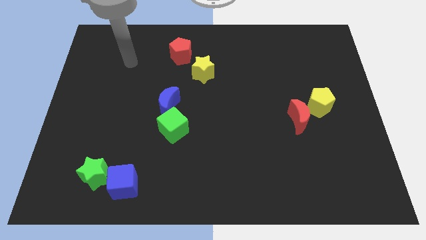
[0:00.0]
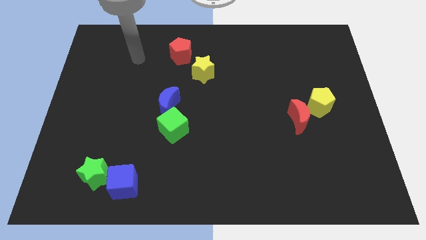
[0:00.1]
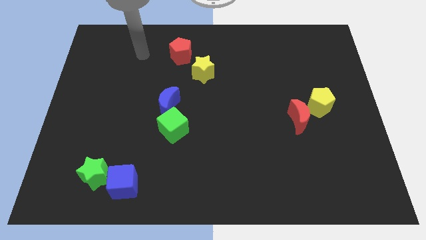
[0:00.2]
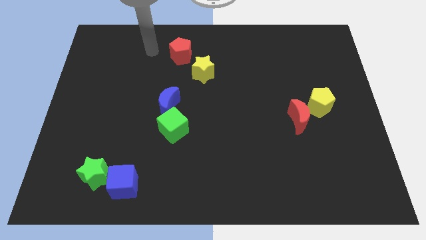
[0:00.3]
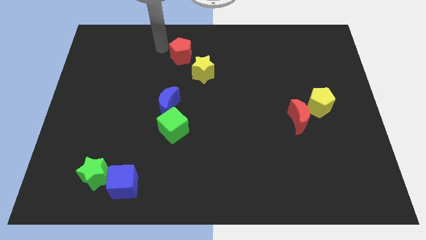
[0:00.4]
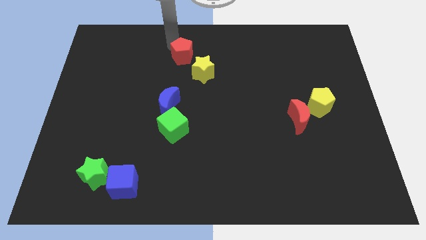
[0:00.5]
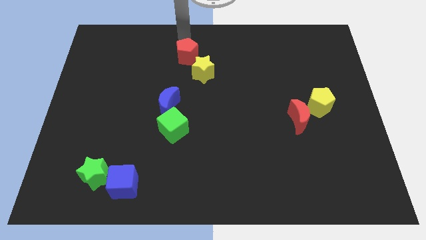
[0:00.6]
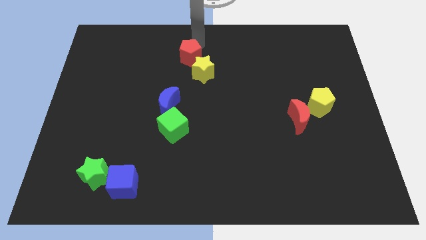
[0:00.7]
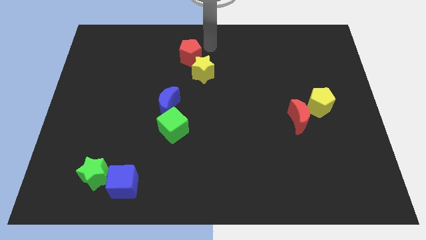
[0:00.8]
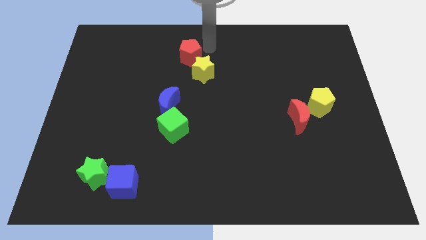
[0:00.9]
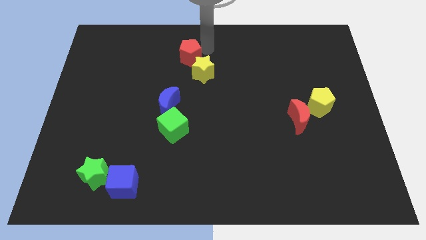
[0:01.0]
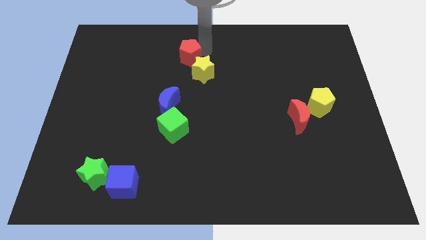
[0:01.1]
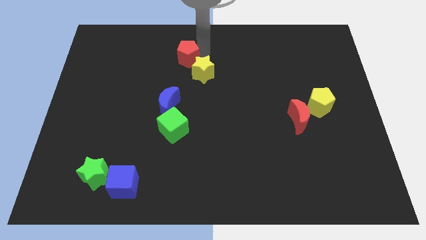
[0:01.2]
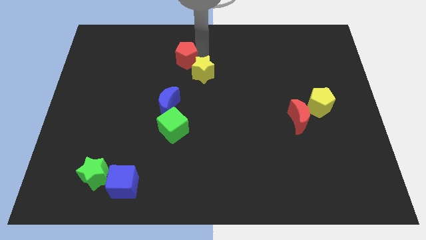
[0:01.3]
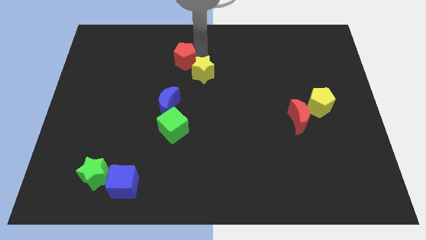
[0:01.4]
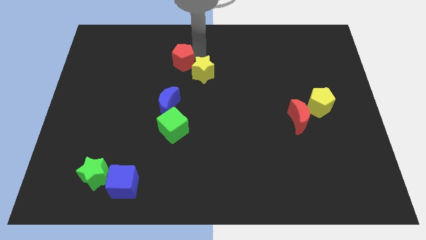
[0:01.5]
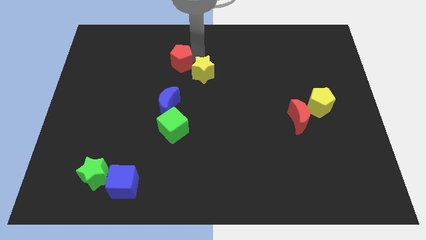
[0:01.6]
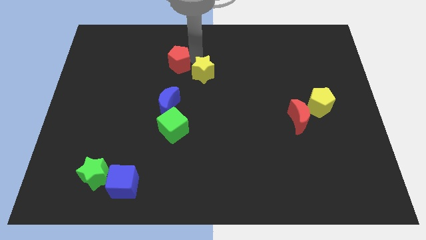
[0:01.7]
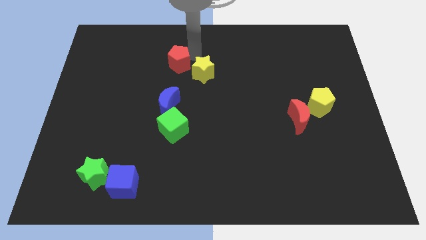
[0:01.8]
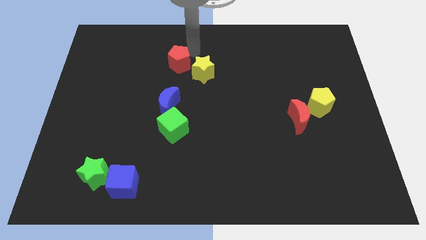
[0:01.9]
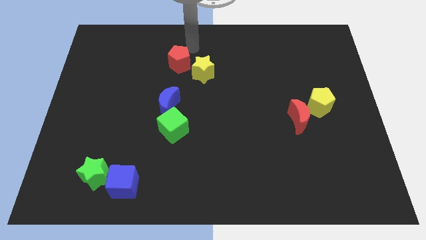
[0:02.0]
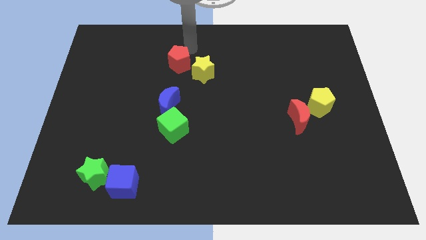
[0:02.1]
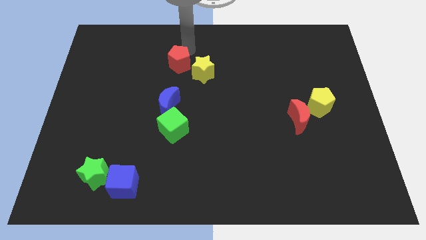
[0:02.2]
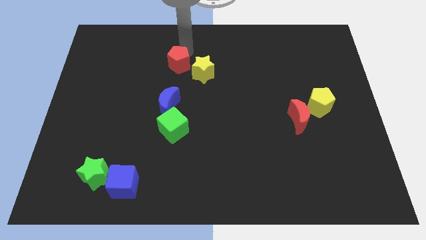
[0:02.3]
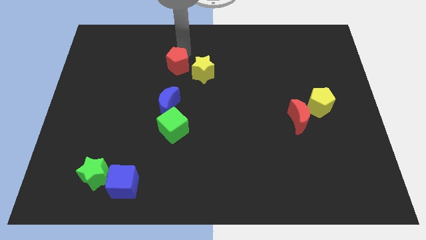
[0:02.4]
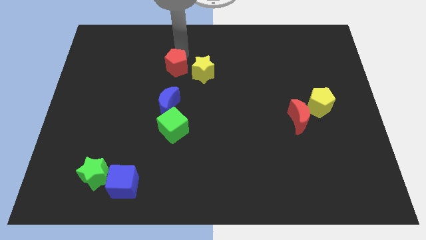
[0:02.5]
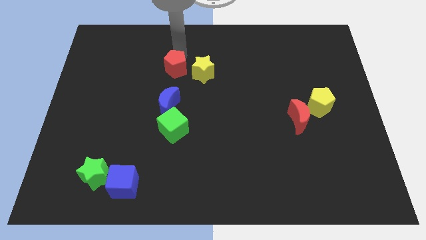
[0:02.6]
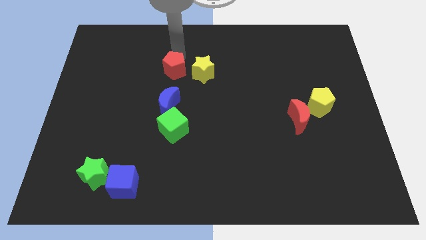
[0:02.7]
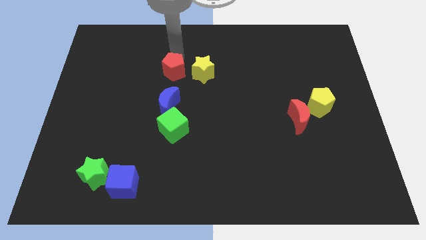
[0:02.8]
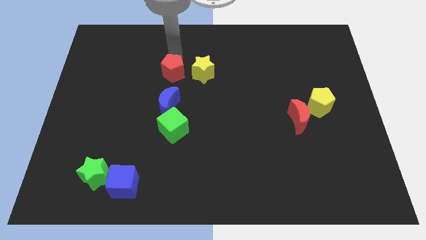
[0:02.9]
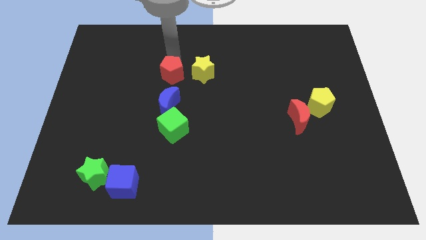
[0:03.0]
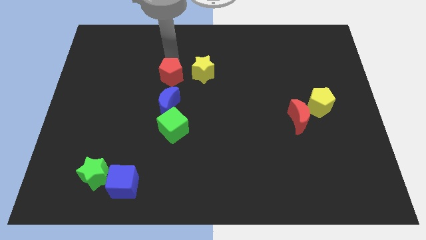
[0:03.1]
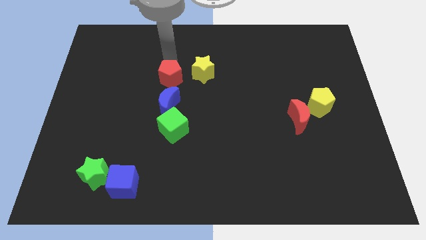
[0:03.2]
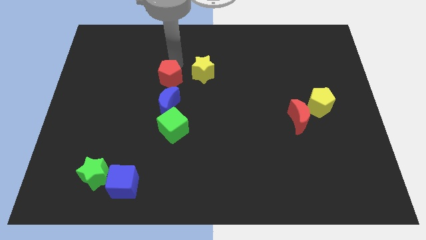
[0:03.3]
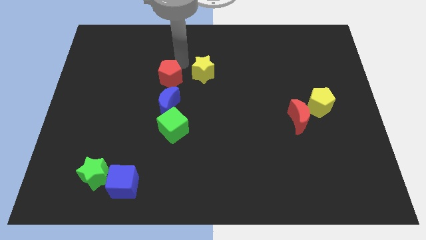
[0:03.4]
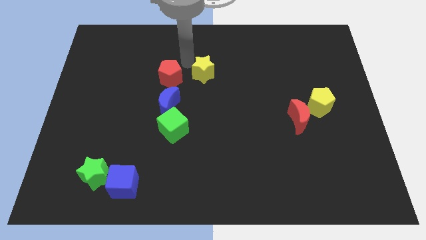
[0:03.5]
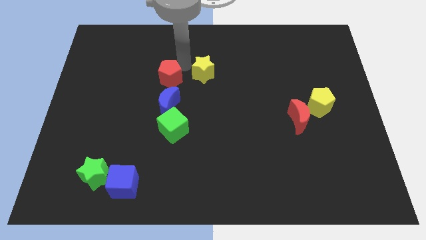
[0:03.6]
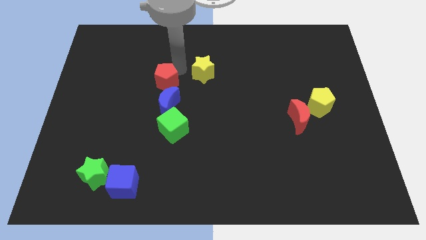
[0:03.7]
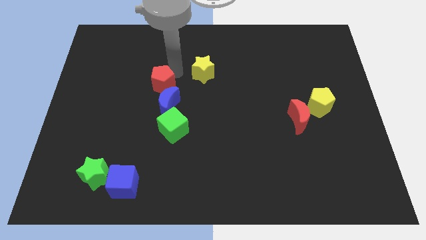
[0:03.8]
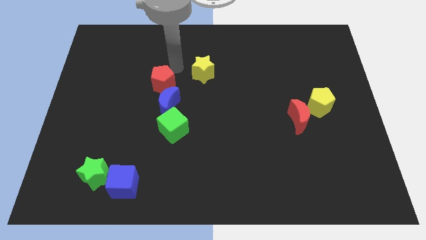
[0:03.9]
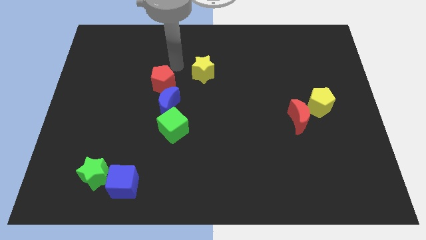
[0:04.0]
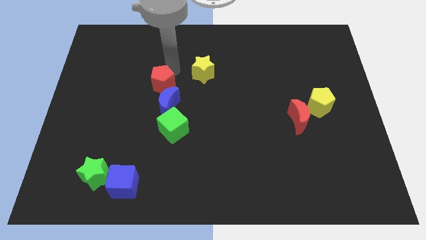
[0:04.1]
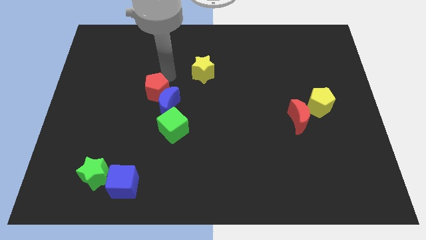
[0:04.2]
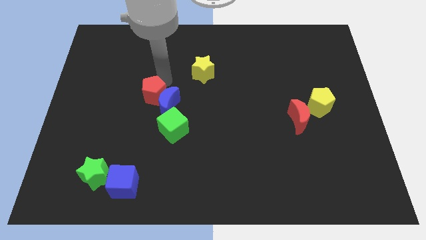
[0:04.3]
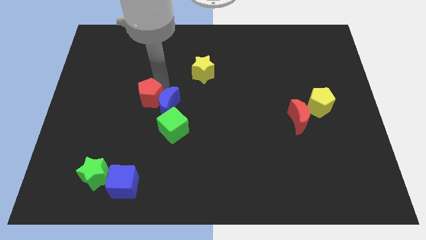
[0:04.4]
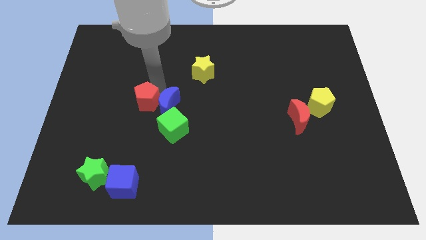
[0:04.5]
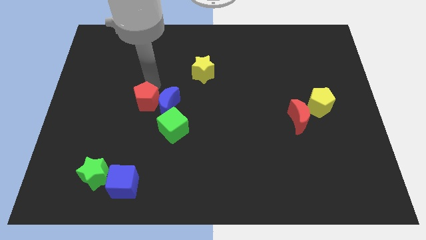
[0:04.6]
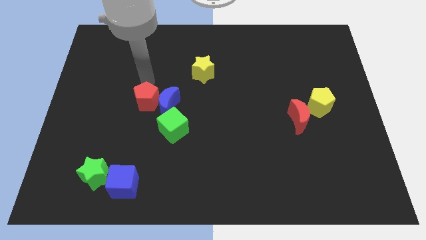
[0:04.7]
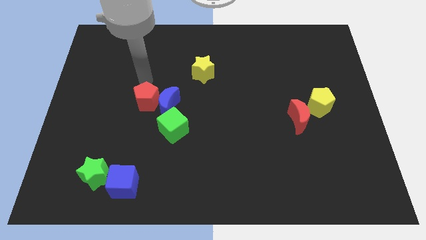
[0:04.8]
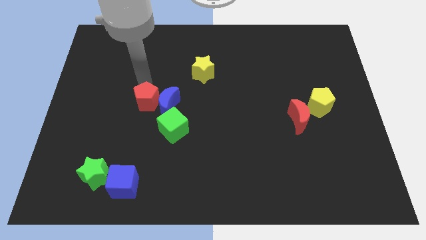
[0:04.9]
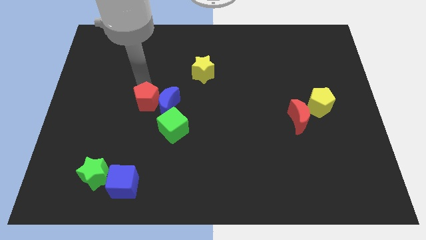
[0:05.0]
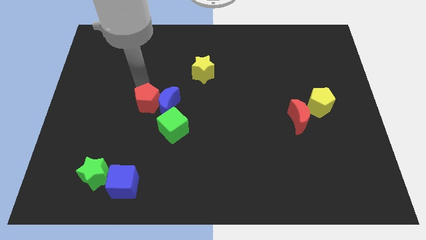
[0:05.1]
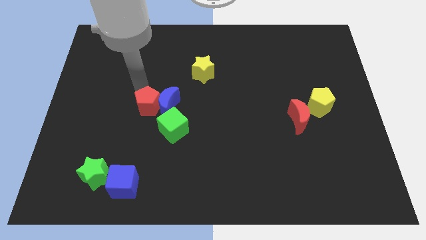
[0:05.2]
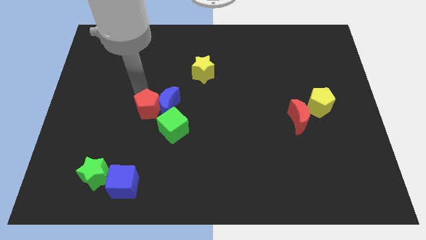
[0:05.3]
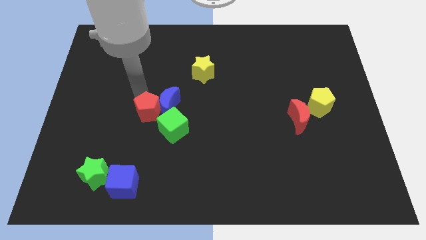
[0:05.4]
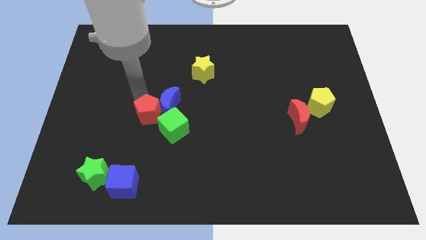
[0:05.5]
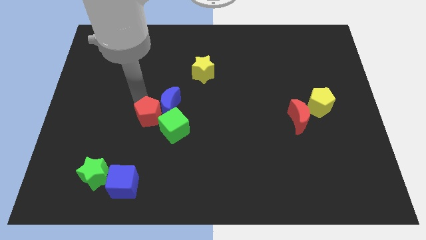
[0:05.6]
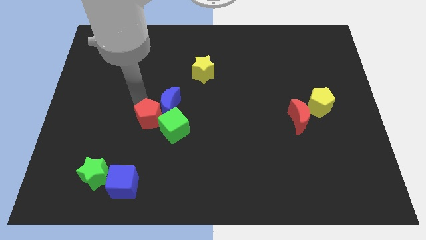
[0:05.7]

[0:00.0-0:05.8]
push the red pentagon below the blue moon

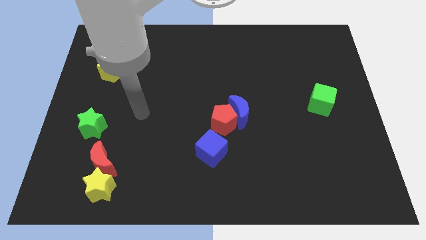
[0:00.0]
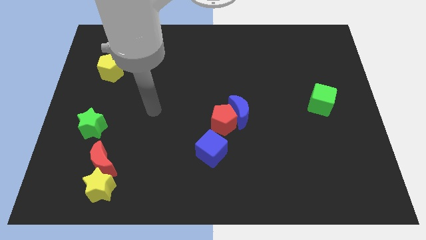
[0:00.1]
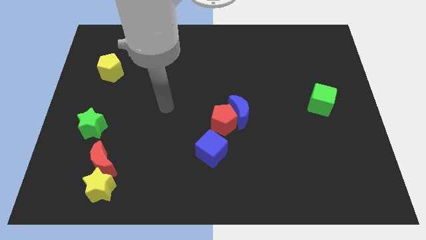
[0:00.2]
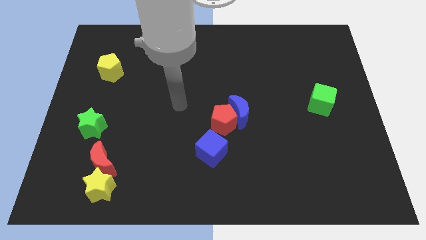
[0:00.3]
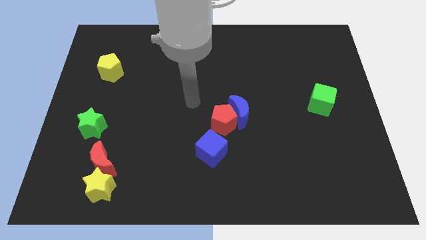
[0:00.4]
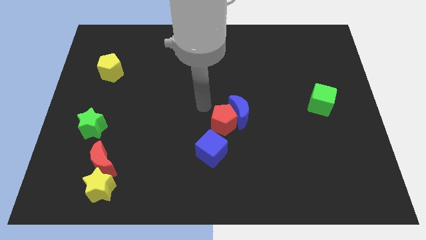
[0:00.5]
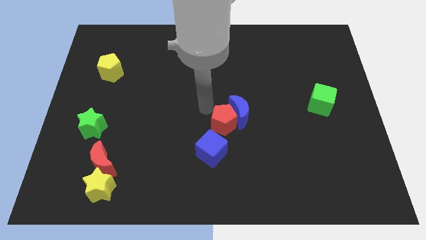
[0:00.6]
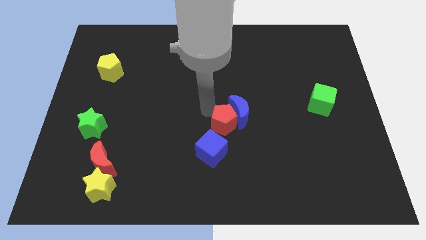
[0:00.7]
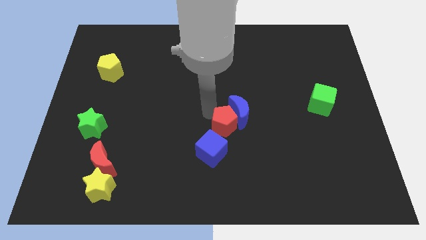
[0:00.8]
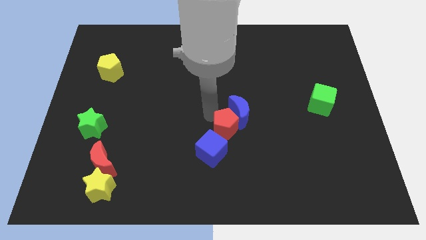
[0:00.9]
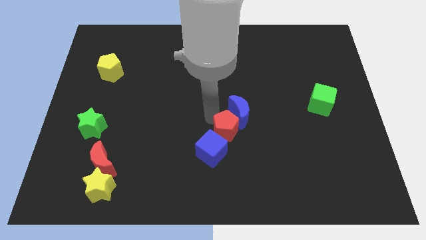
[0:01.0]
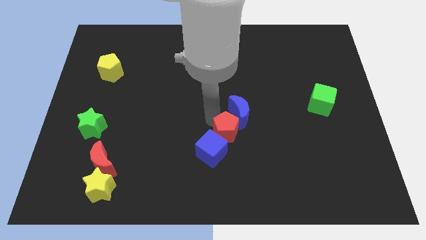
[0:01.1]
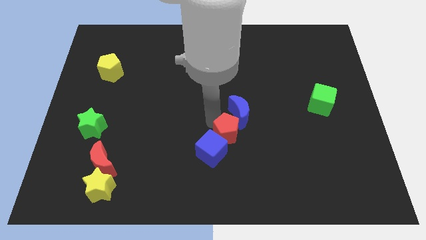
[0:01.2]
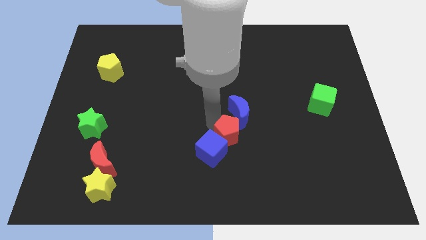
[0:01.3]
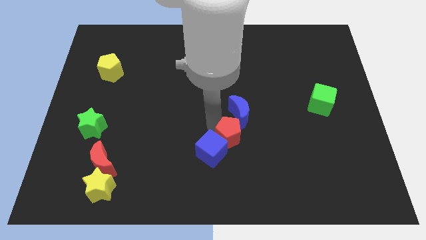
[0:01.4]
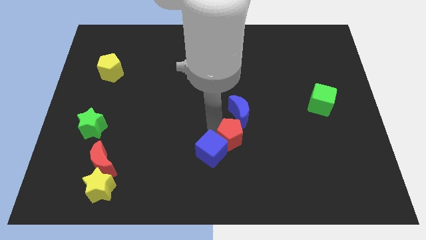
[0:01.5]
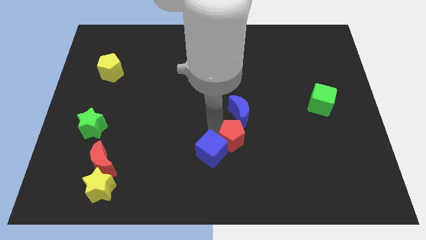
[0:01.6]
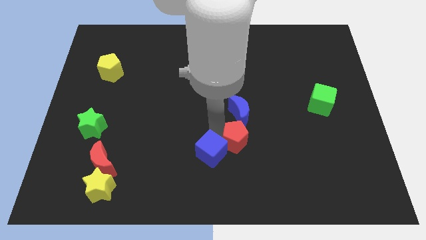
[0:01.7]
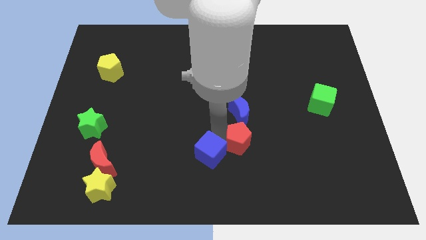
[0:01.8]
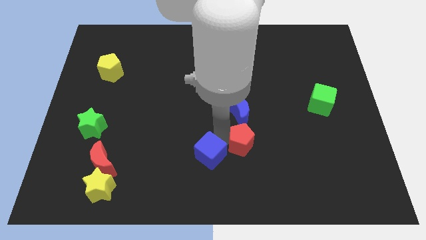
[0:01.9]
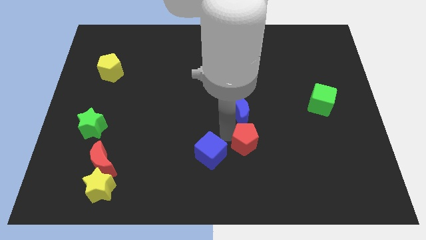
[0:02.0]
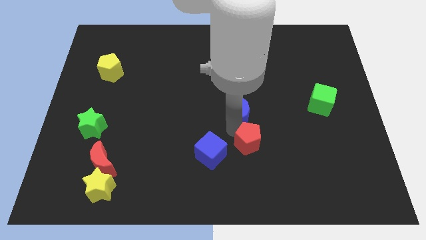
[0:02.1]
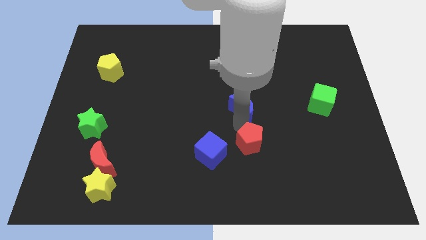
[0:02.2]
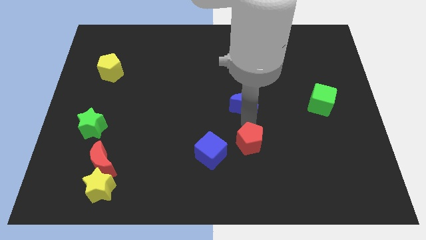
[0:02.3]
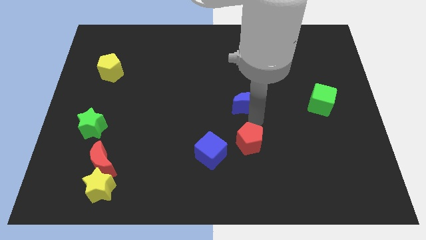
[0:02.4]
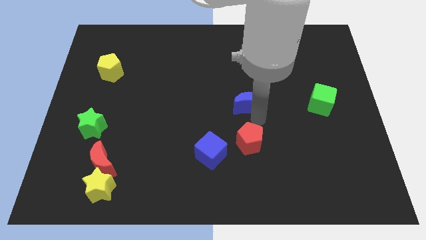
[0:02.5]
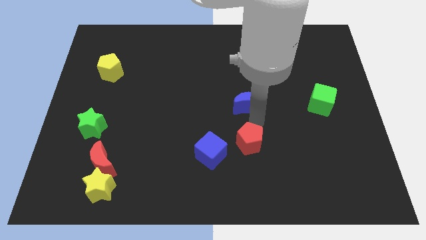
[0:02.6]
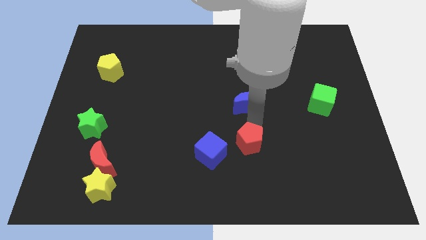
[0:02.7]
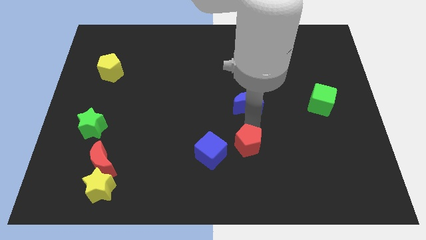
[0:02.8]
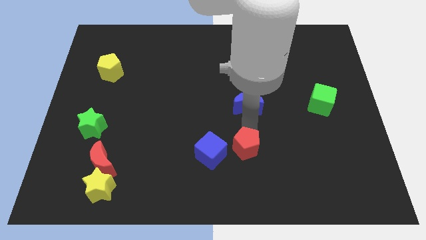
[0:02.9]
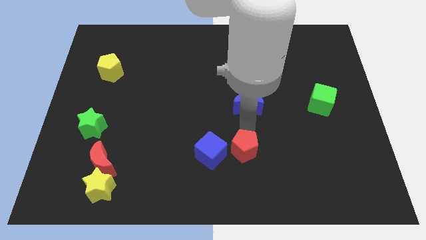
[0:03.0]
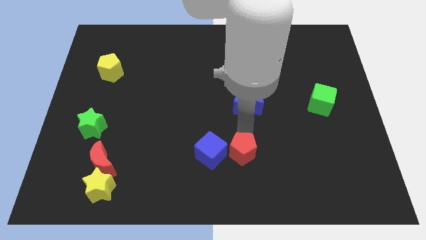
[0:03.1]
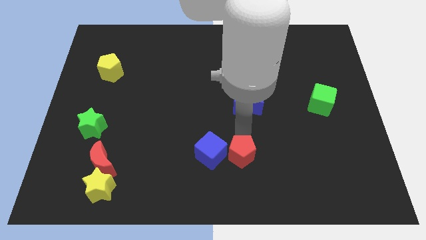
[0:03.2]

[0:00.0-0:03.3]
move the red pentagon diagonally down and to the right of the blue cube
